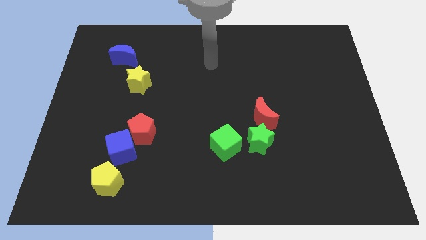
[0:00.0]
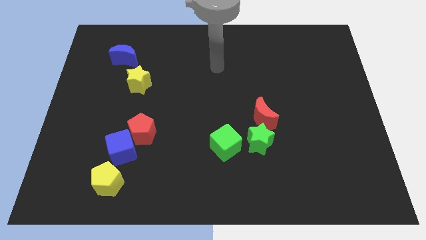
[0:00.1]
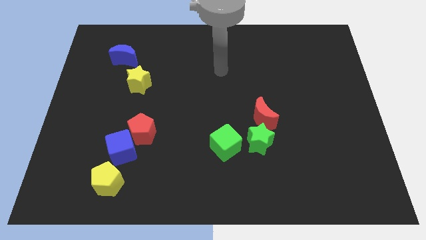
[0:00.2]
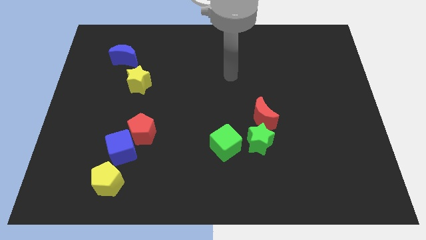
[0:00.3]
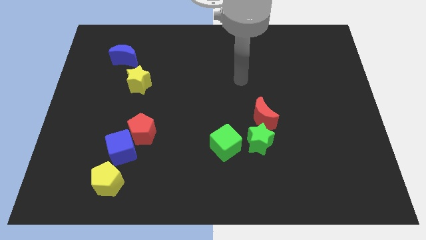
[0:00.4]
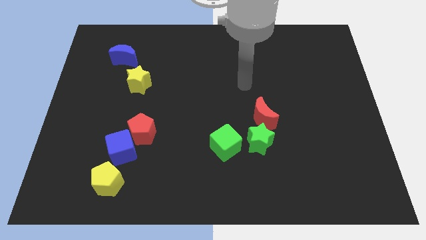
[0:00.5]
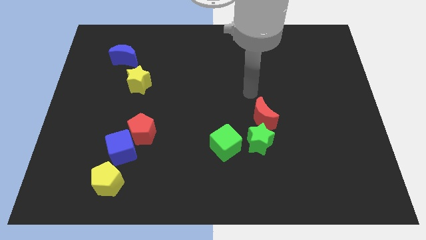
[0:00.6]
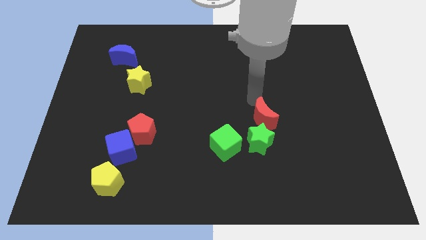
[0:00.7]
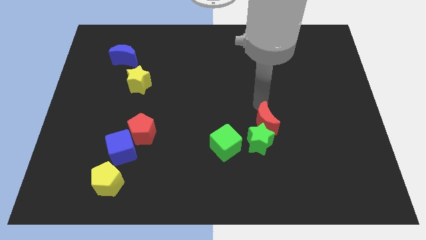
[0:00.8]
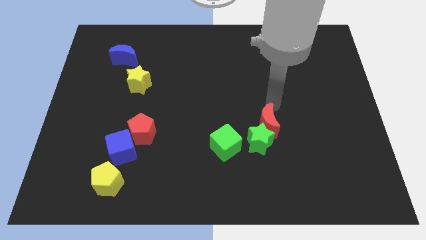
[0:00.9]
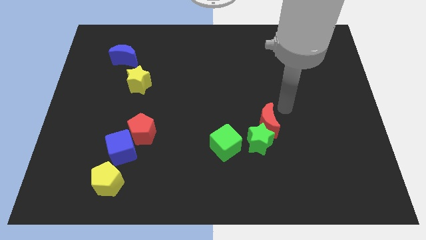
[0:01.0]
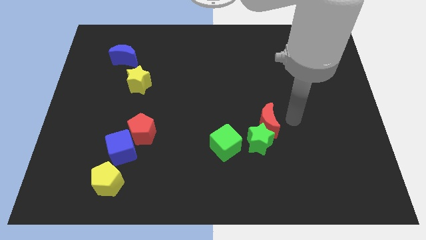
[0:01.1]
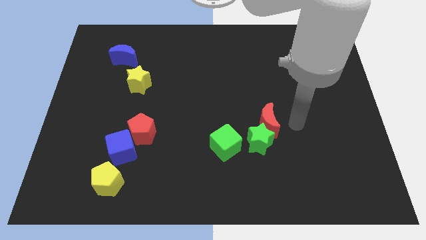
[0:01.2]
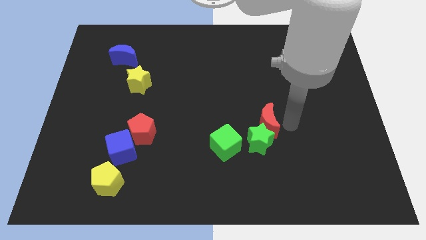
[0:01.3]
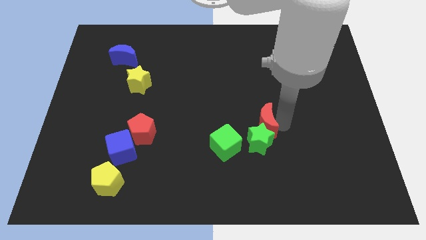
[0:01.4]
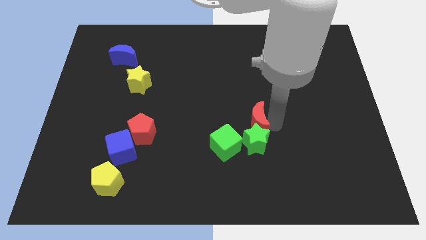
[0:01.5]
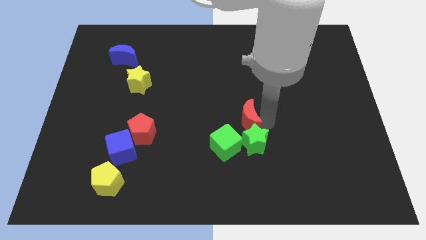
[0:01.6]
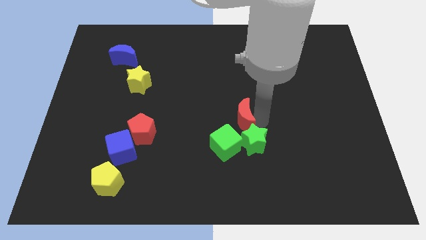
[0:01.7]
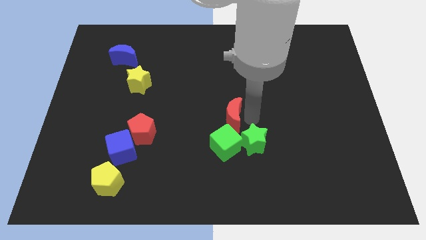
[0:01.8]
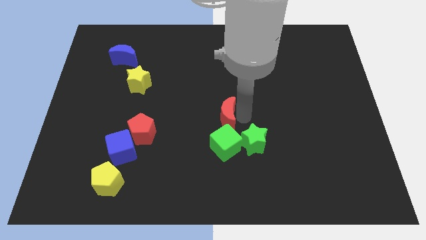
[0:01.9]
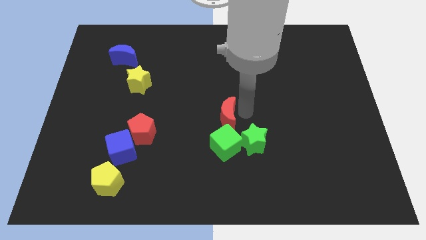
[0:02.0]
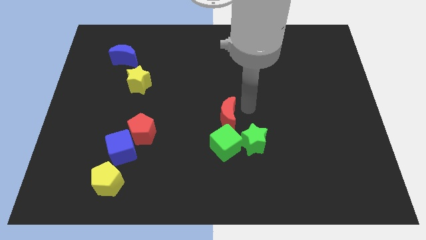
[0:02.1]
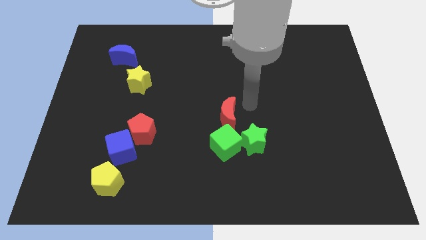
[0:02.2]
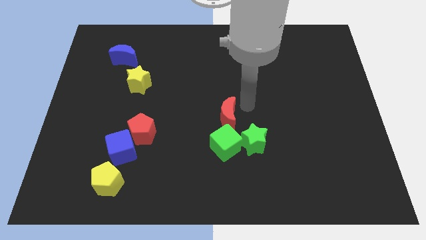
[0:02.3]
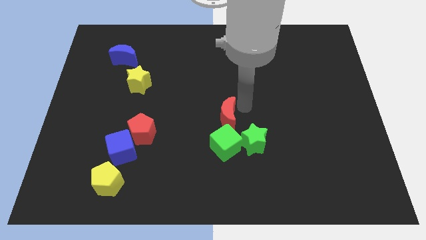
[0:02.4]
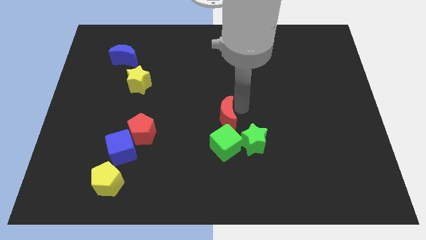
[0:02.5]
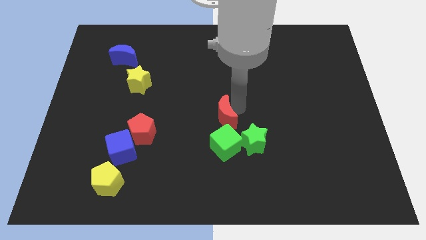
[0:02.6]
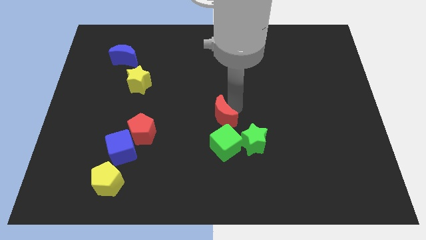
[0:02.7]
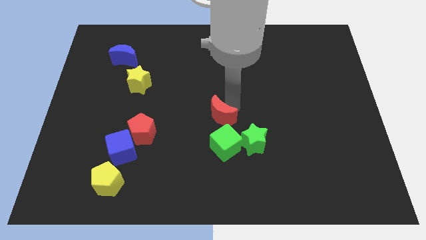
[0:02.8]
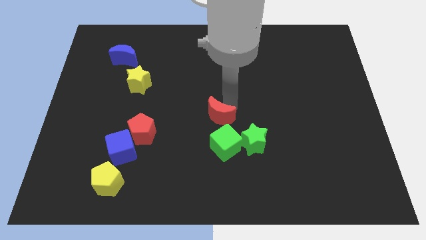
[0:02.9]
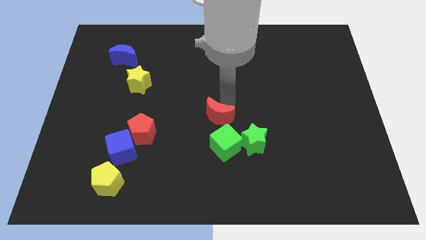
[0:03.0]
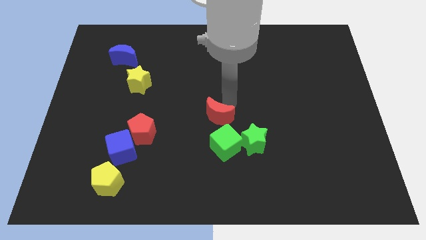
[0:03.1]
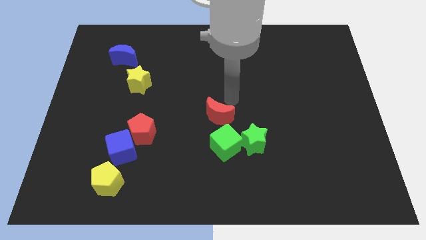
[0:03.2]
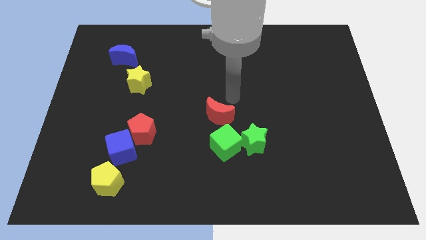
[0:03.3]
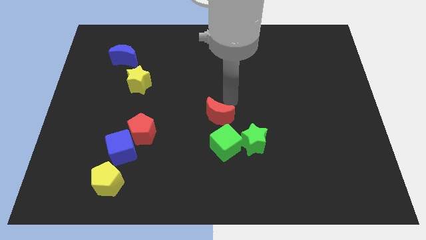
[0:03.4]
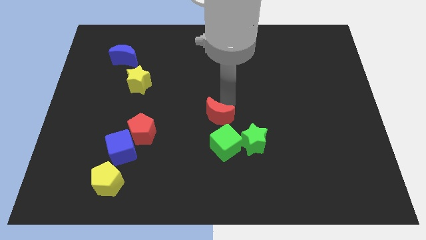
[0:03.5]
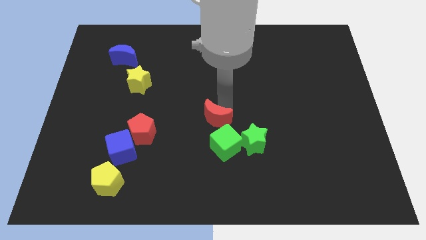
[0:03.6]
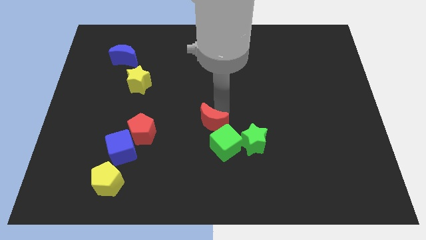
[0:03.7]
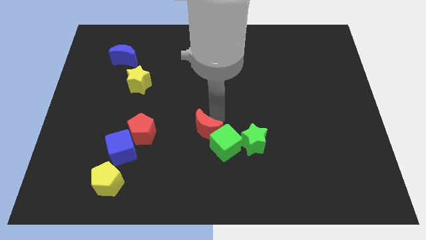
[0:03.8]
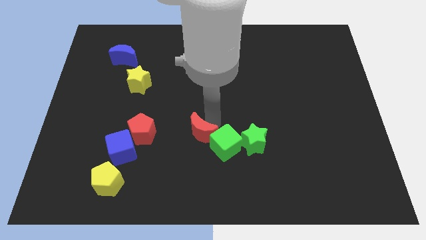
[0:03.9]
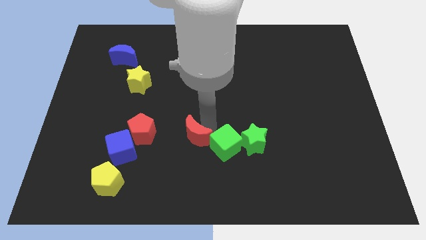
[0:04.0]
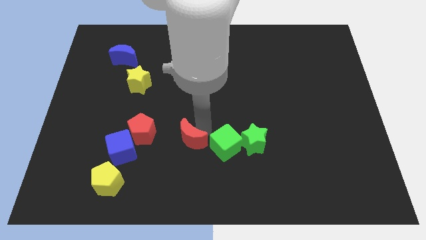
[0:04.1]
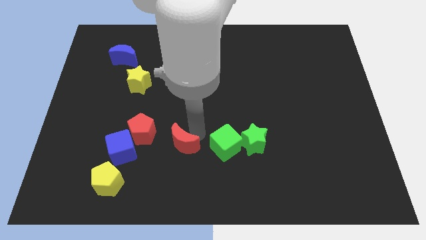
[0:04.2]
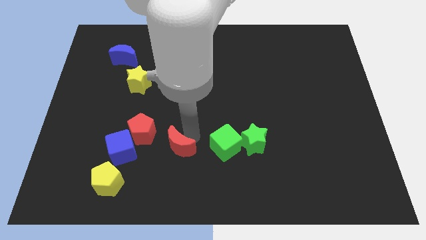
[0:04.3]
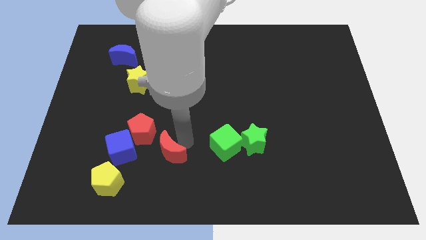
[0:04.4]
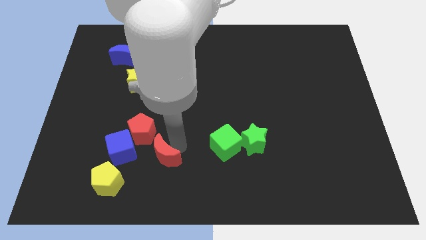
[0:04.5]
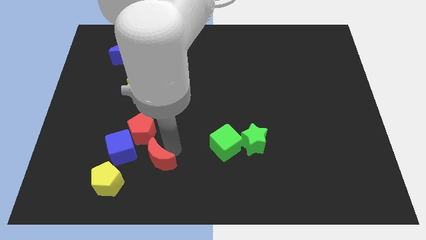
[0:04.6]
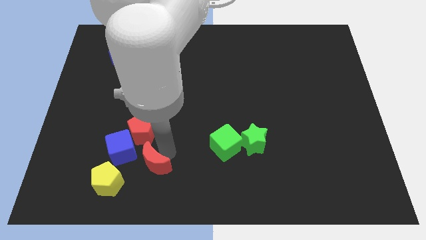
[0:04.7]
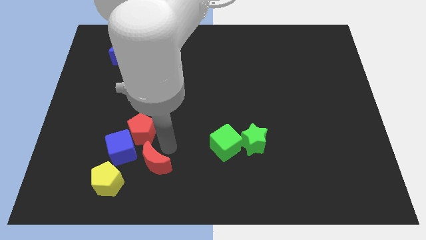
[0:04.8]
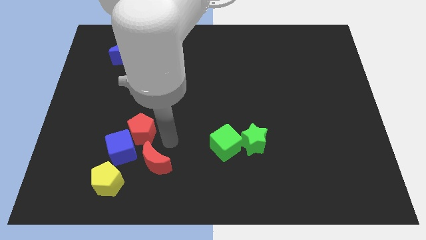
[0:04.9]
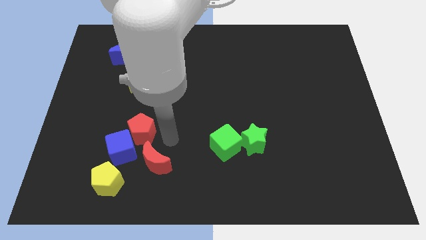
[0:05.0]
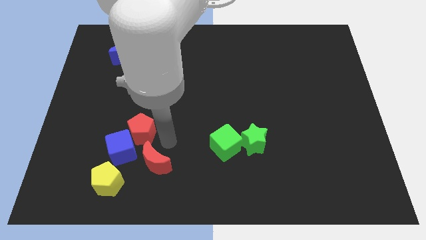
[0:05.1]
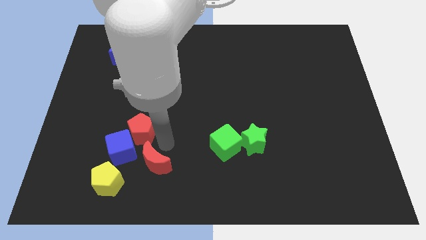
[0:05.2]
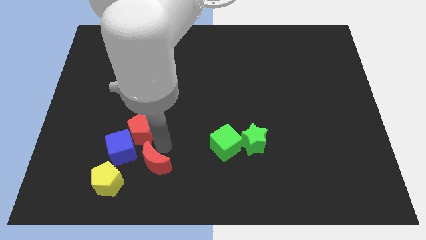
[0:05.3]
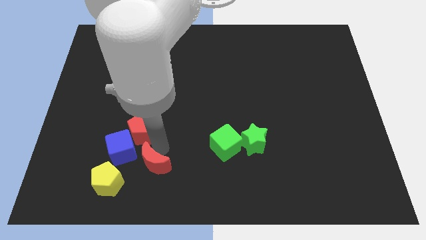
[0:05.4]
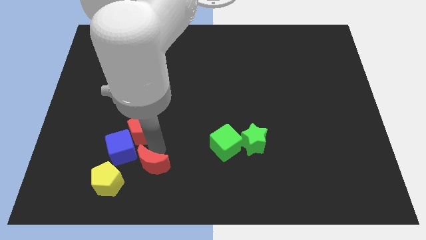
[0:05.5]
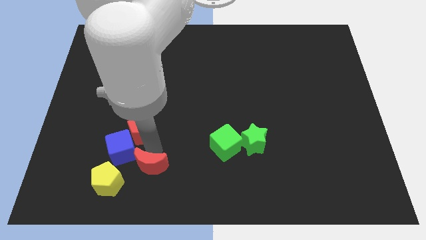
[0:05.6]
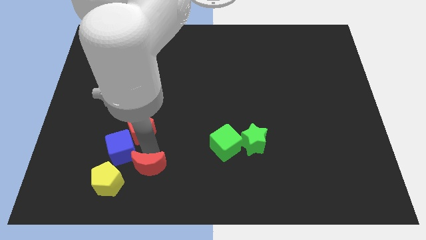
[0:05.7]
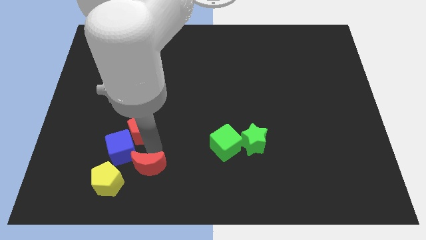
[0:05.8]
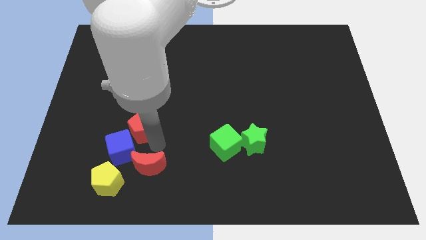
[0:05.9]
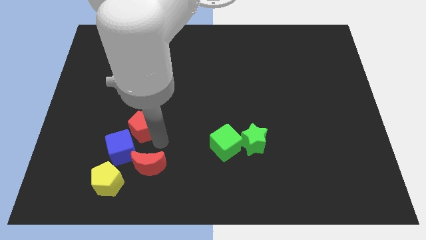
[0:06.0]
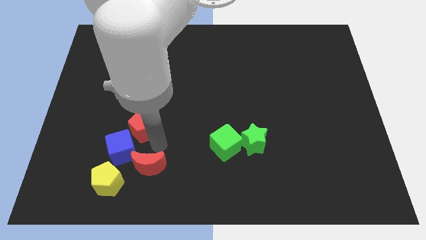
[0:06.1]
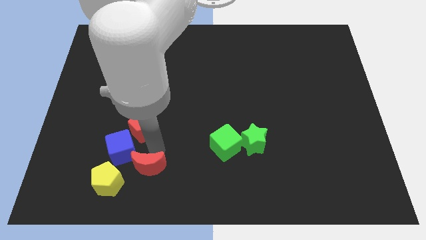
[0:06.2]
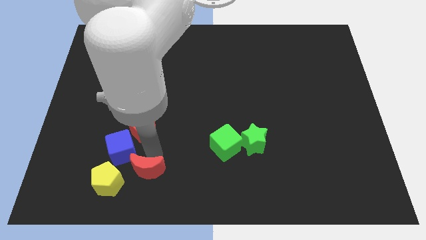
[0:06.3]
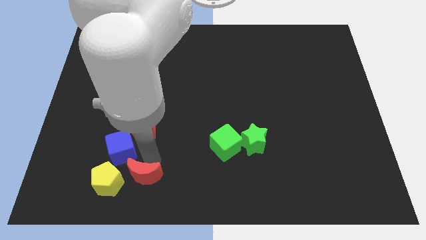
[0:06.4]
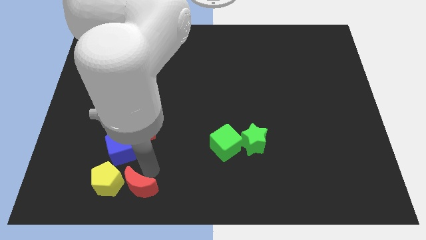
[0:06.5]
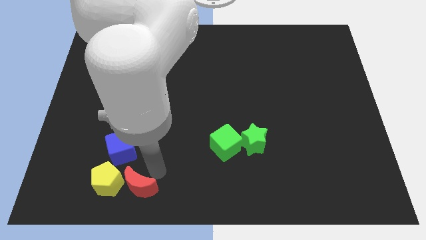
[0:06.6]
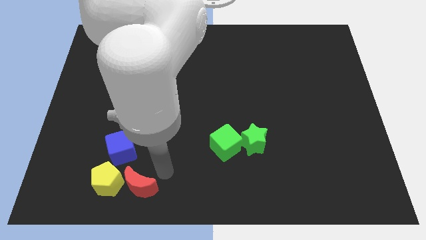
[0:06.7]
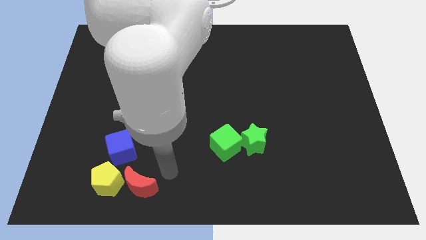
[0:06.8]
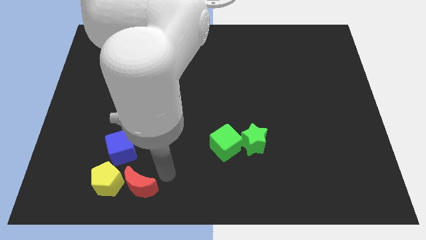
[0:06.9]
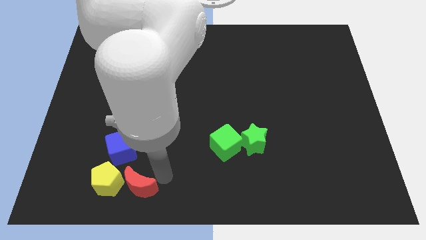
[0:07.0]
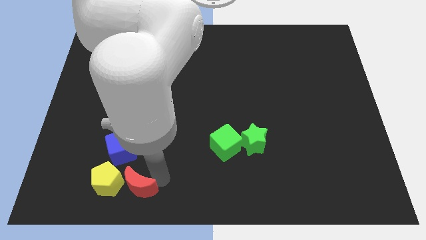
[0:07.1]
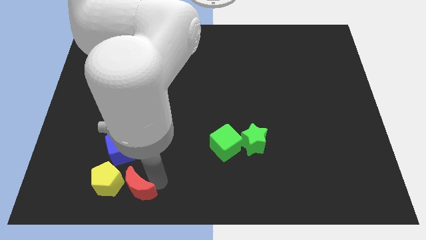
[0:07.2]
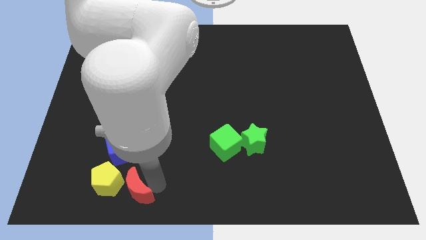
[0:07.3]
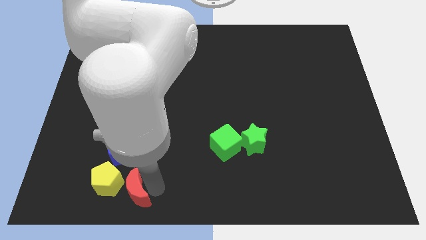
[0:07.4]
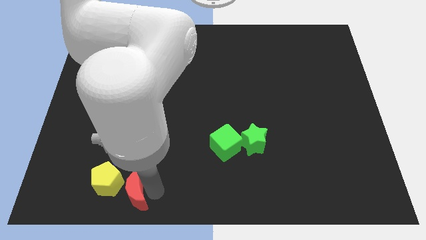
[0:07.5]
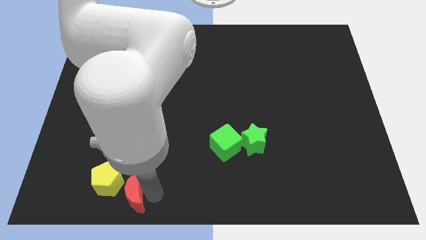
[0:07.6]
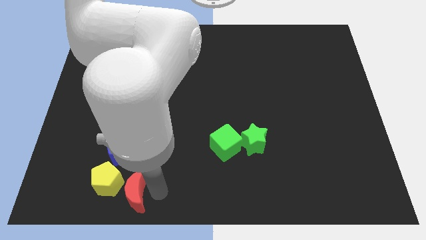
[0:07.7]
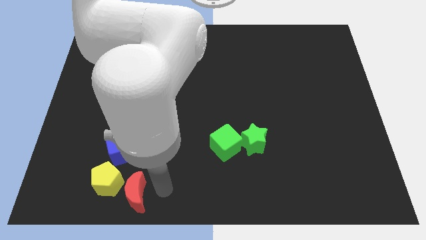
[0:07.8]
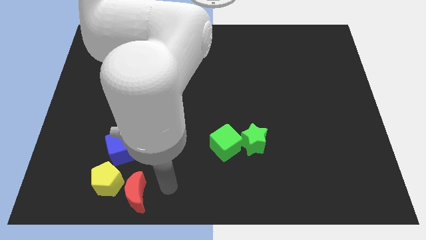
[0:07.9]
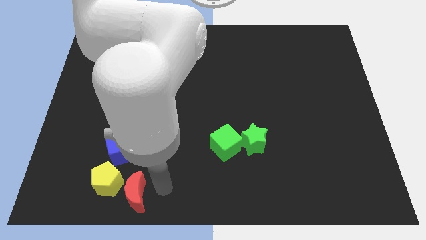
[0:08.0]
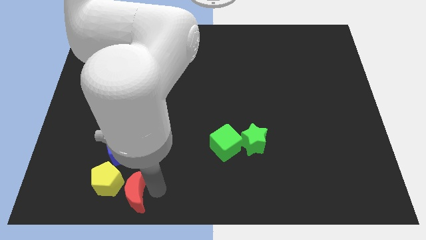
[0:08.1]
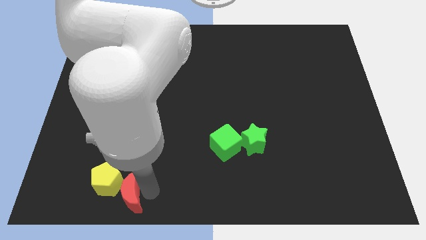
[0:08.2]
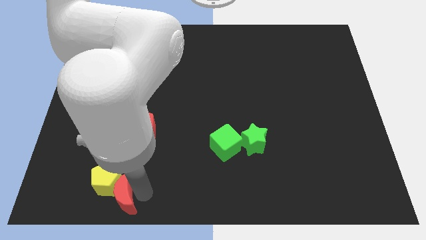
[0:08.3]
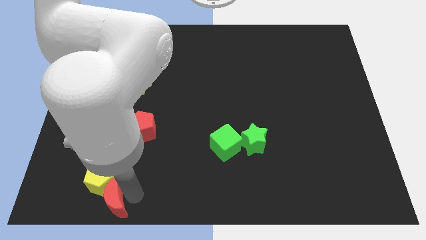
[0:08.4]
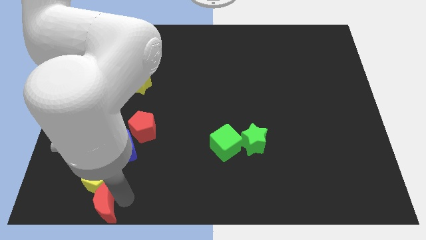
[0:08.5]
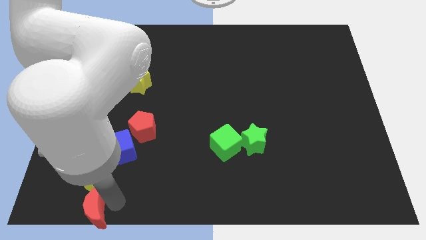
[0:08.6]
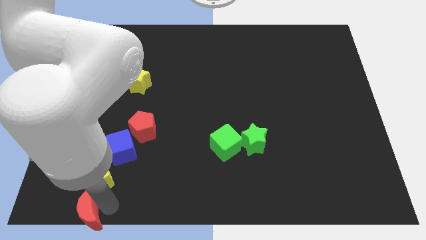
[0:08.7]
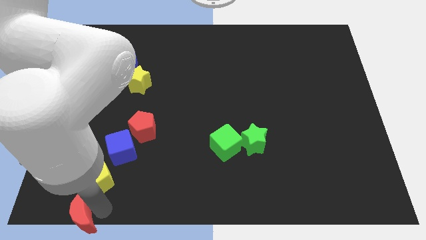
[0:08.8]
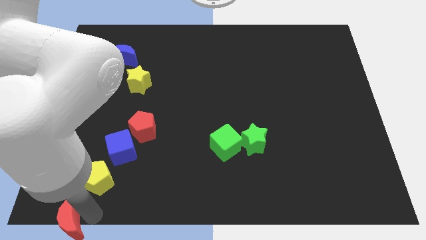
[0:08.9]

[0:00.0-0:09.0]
move the red moon to the bottom left of the board
